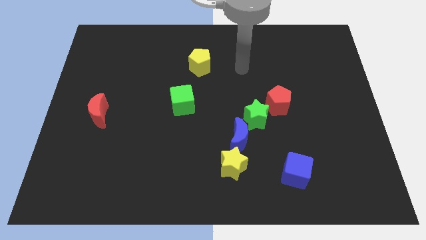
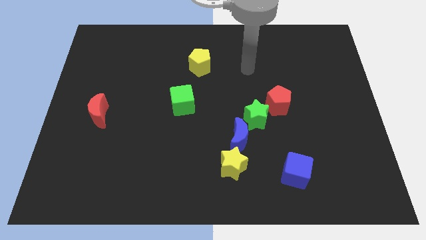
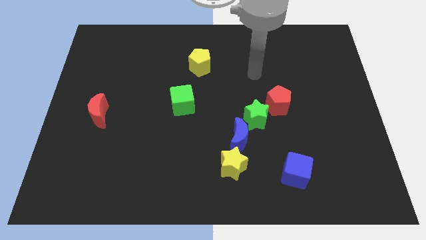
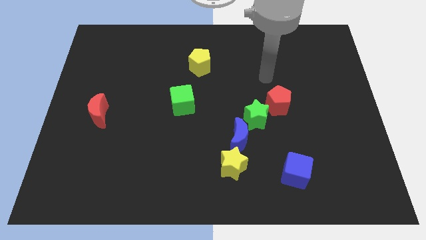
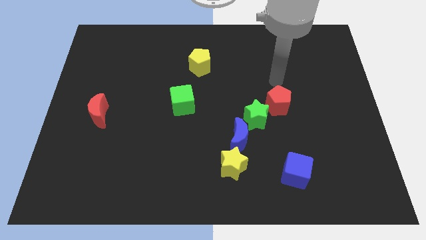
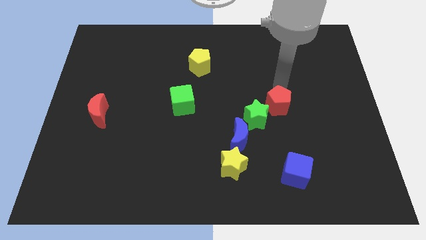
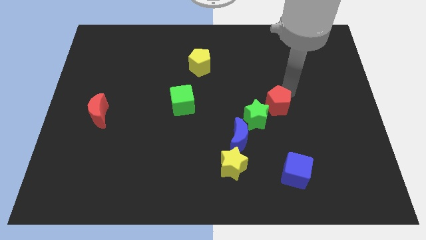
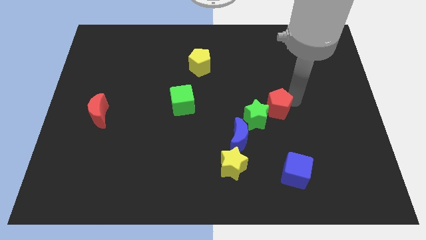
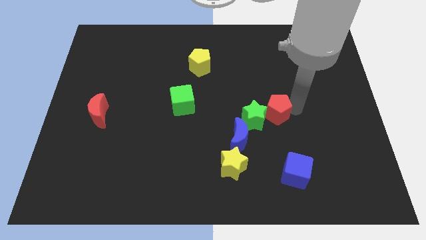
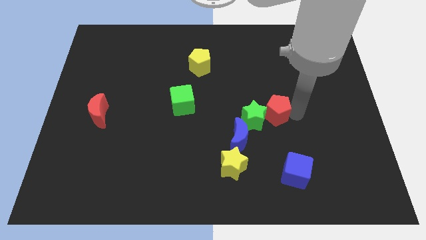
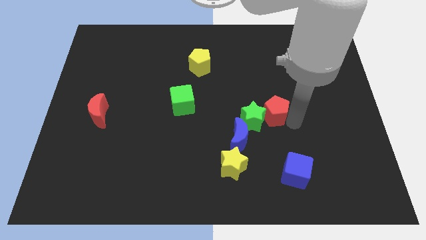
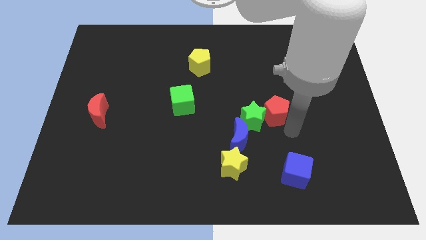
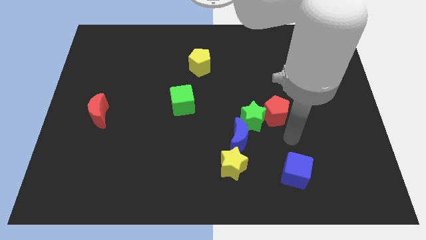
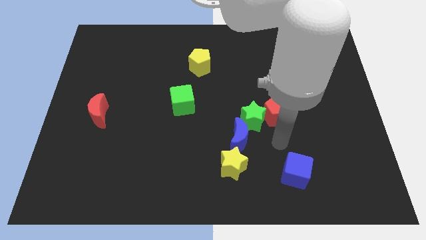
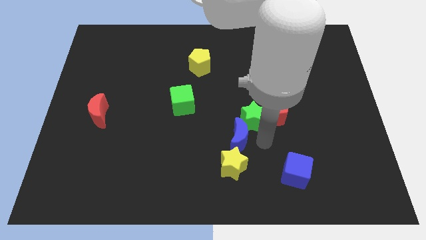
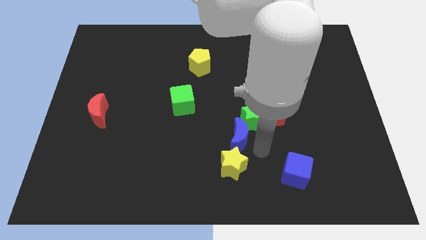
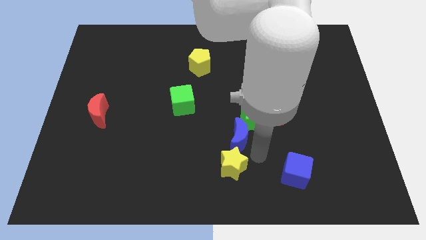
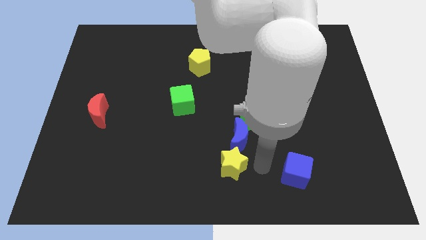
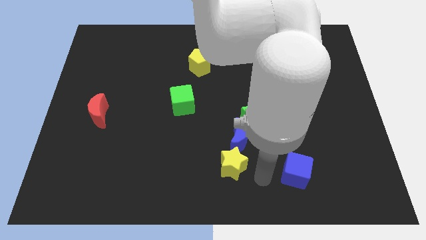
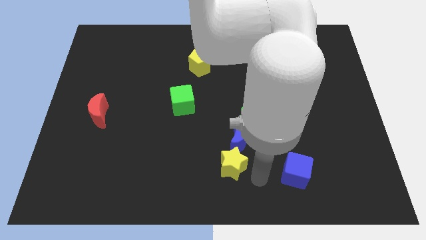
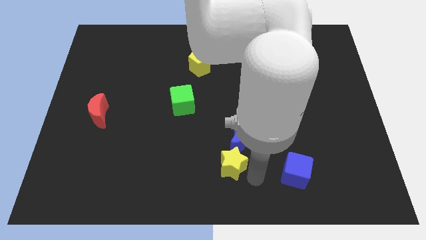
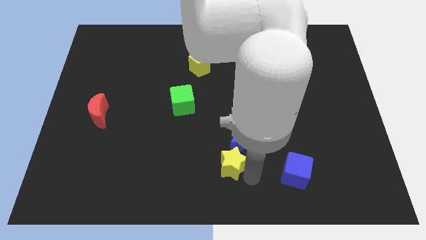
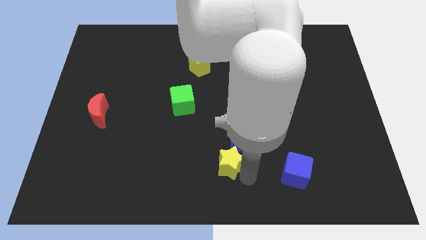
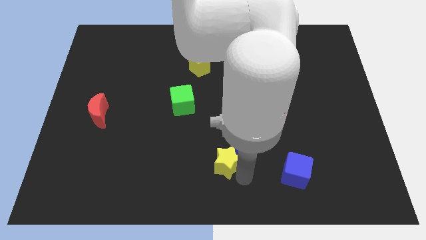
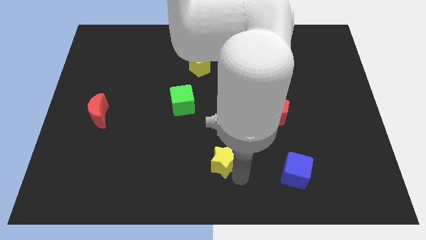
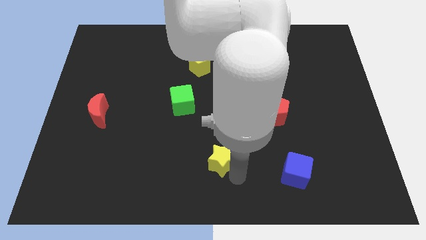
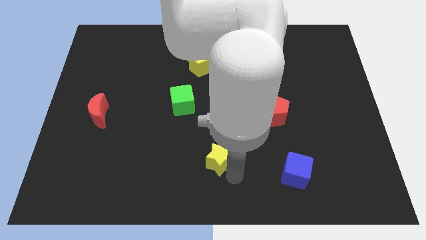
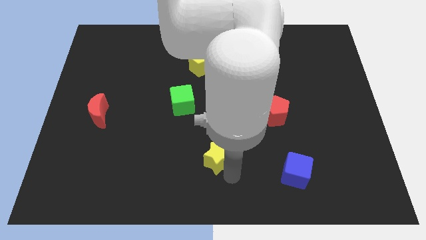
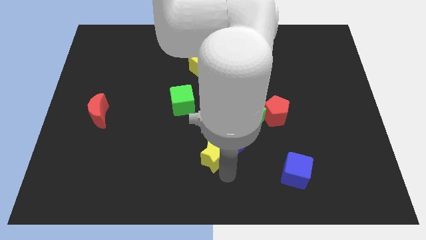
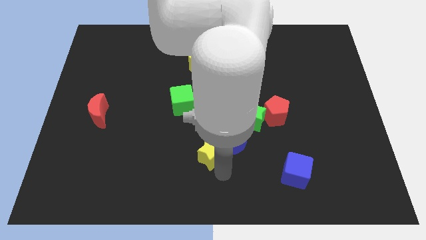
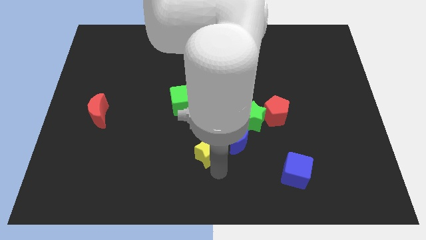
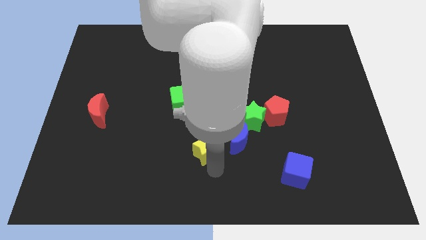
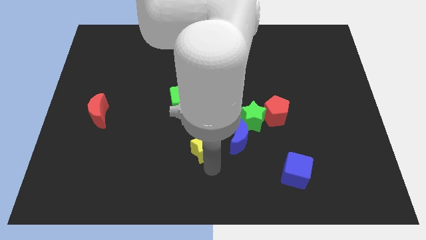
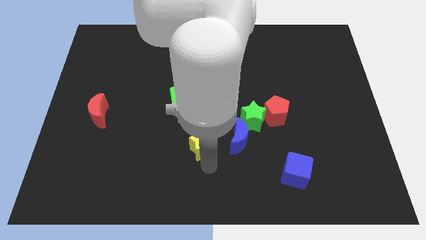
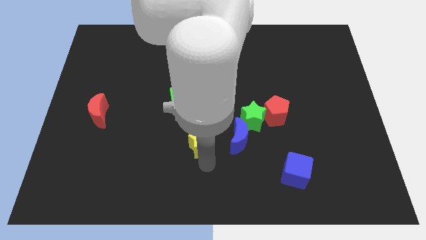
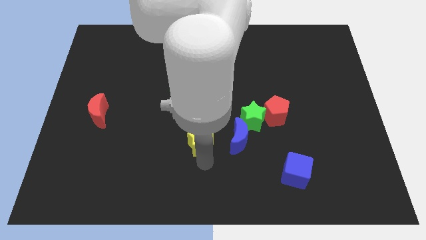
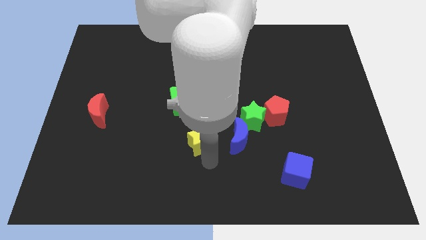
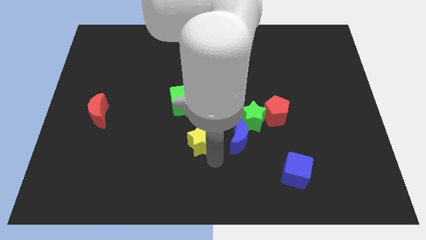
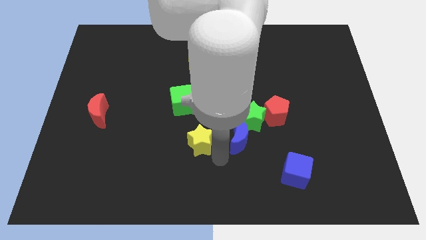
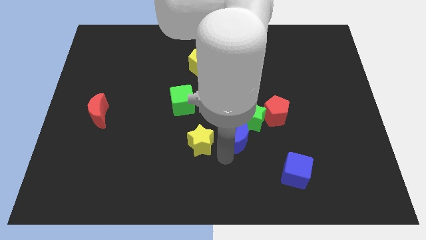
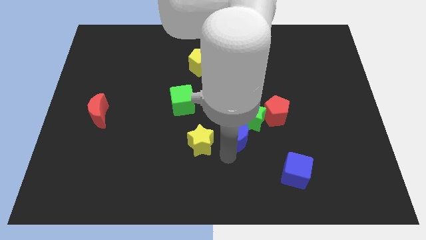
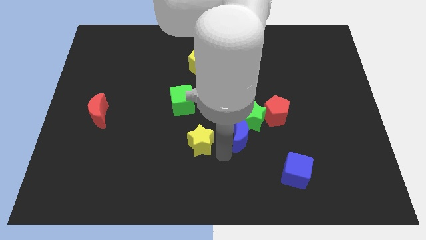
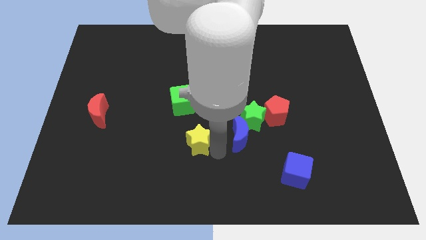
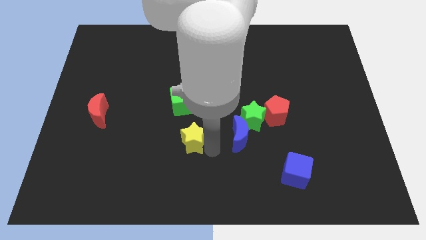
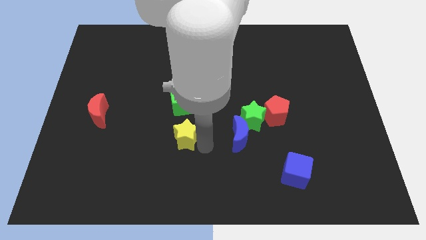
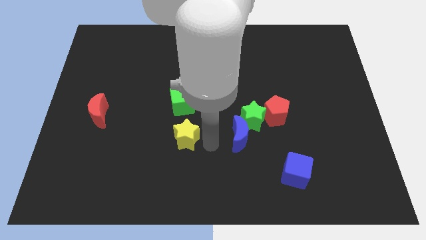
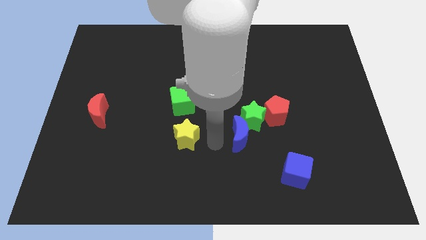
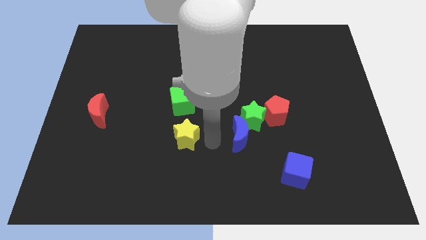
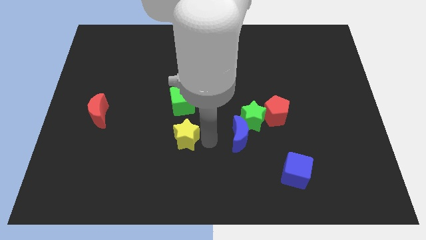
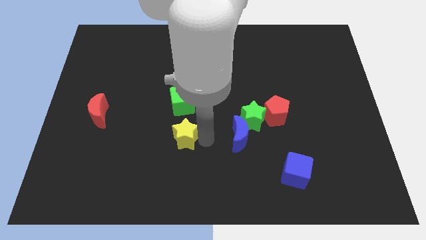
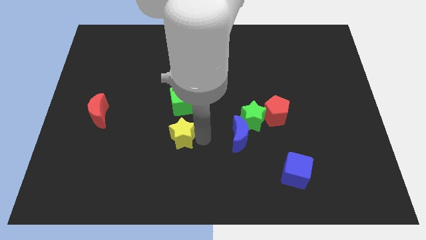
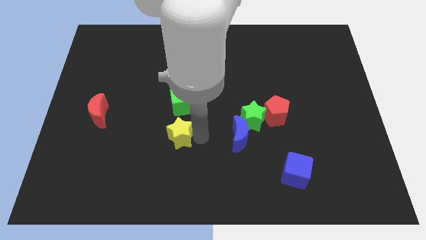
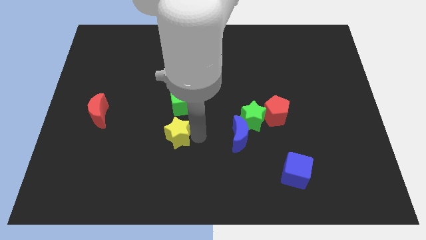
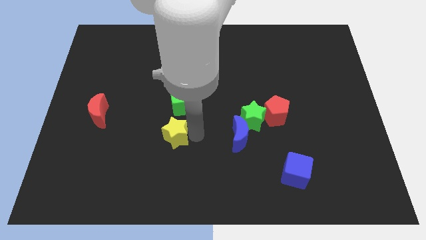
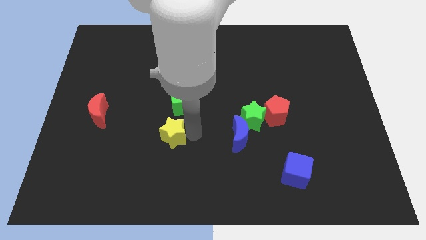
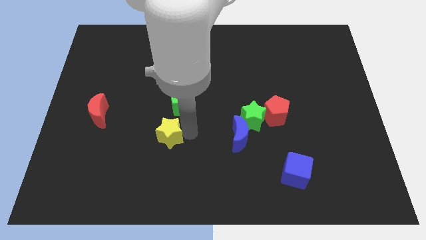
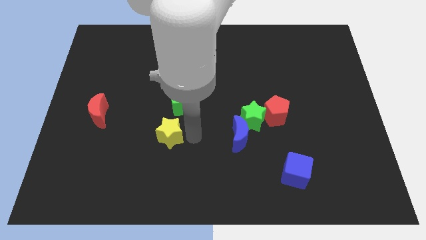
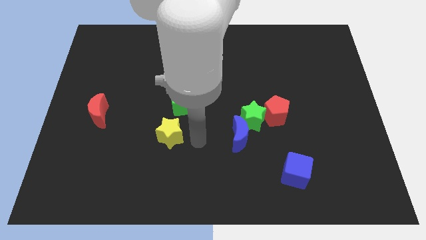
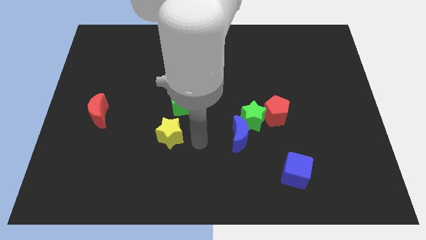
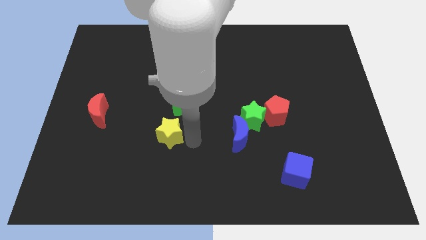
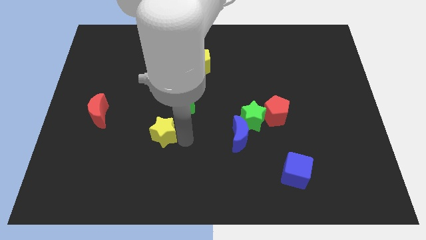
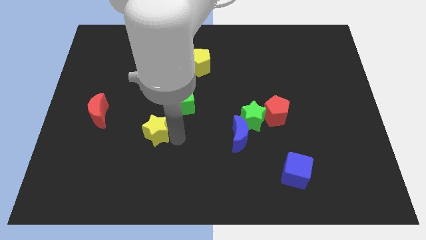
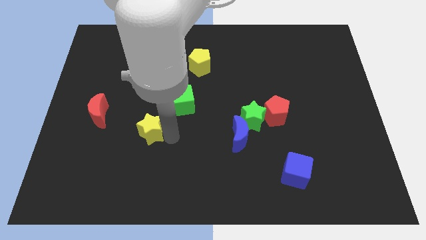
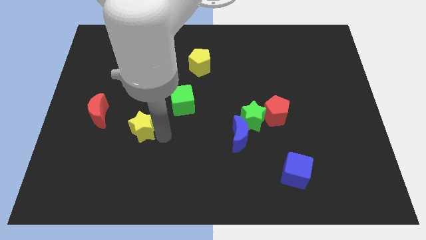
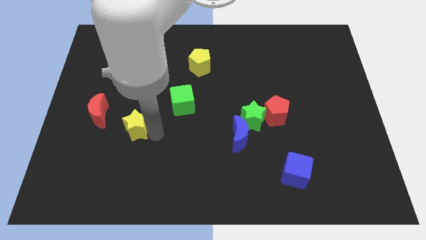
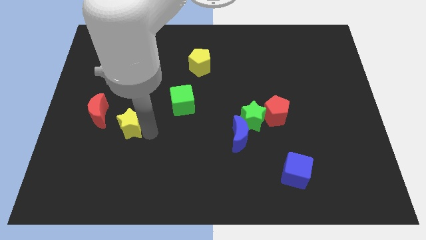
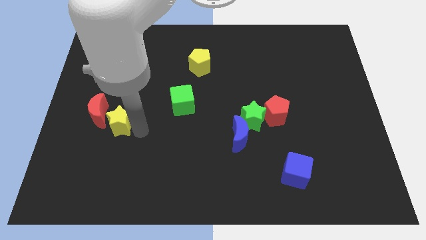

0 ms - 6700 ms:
move the yellow star next to the red moon

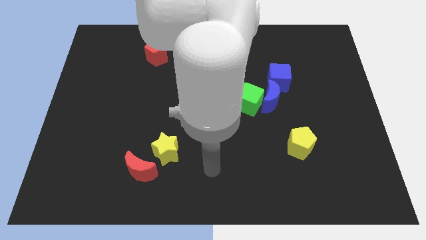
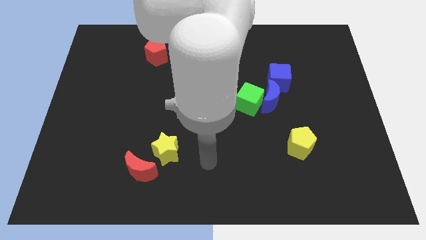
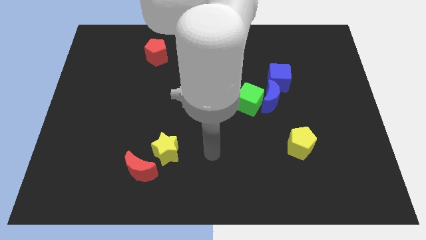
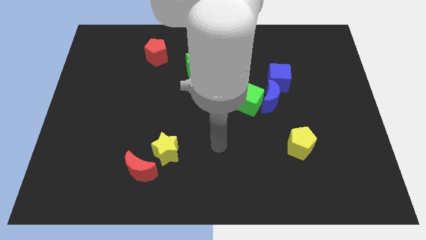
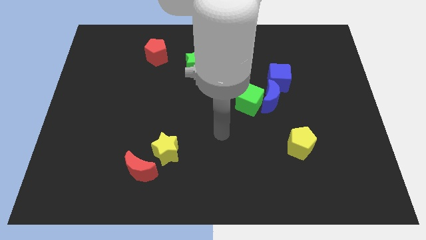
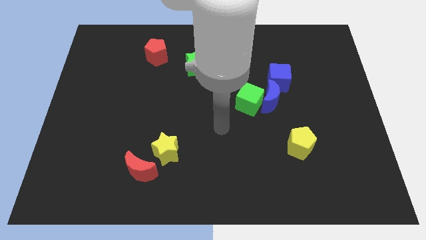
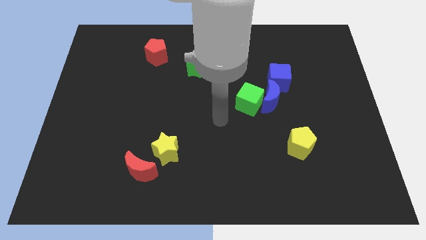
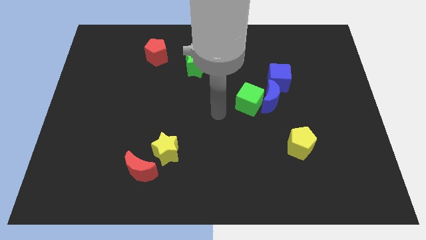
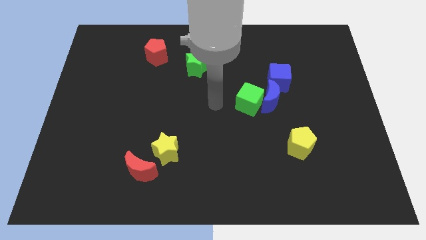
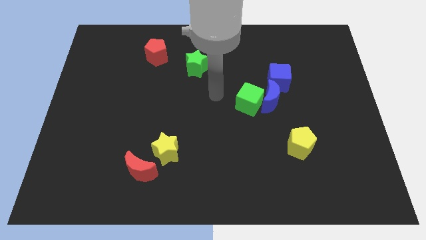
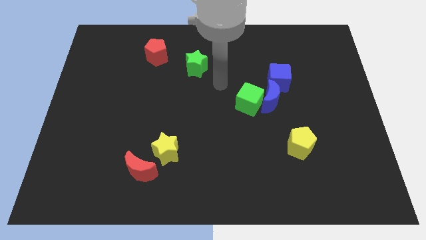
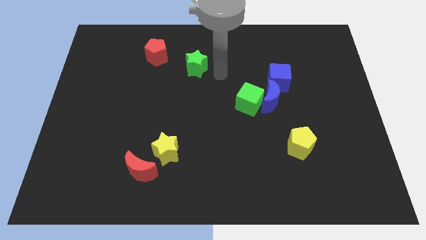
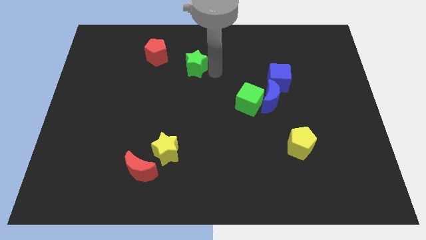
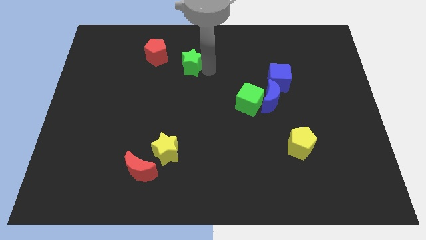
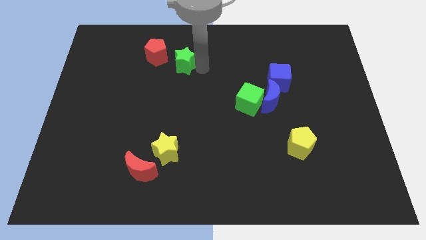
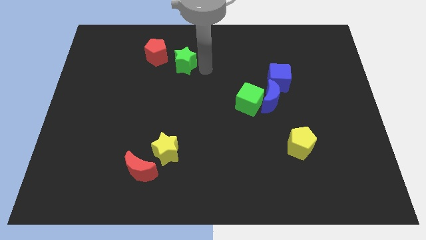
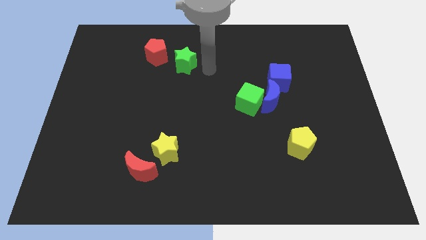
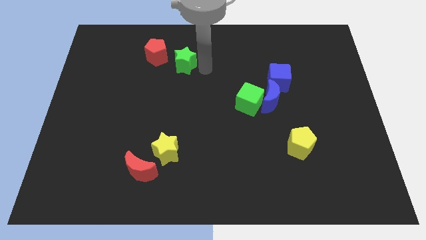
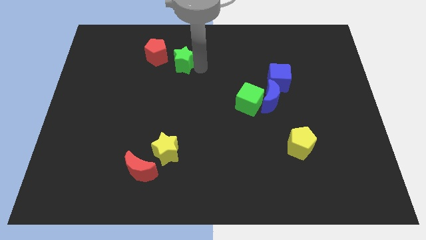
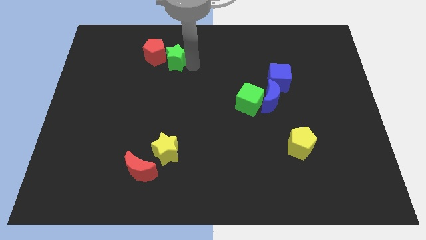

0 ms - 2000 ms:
slide the green star close to the red pentagon
